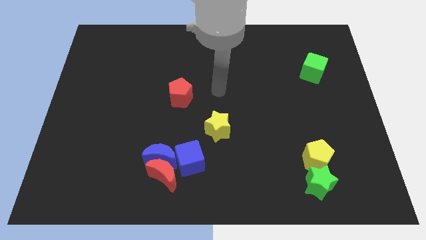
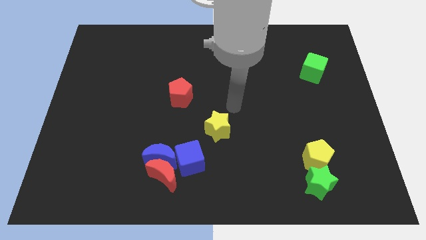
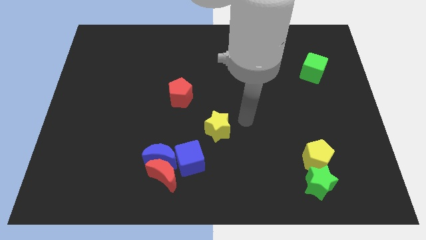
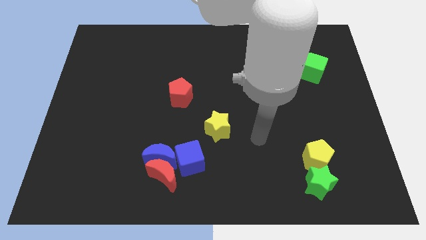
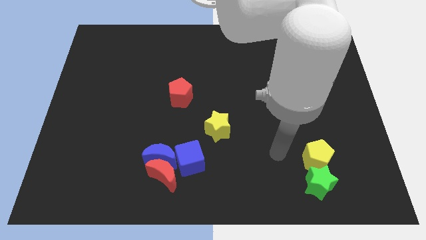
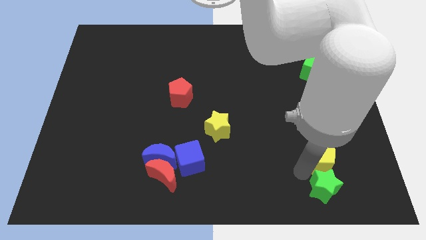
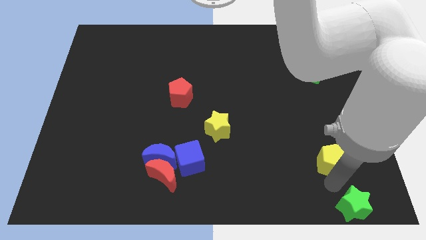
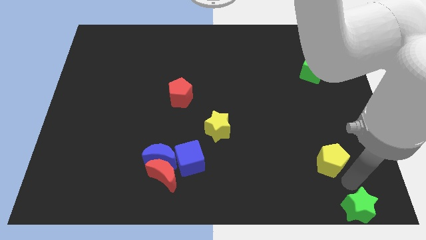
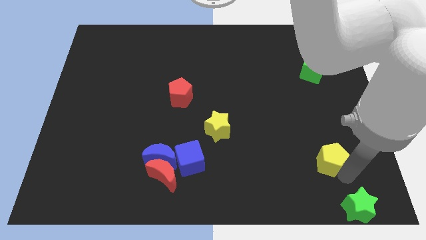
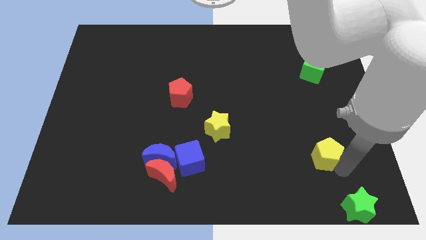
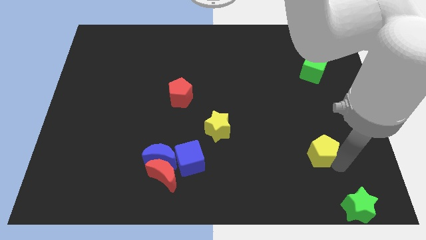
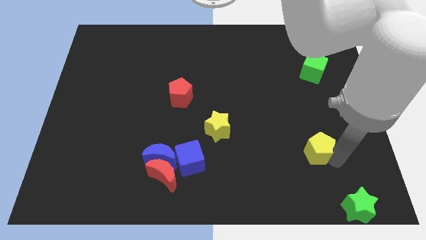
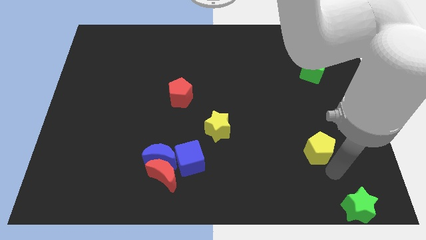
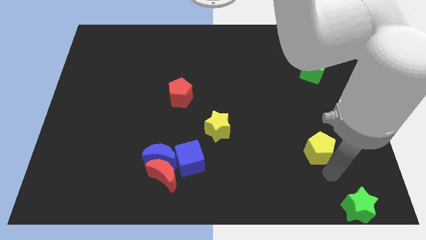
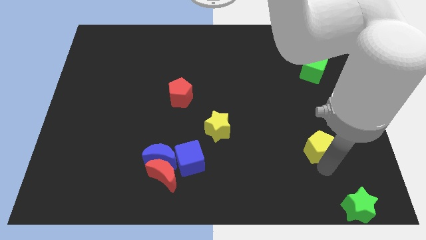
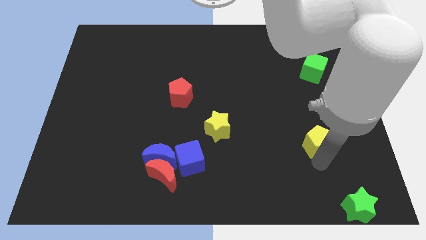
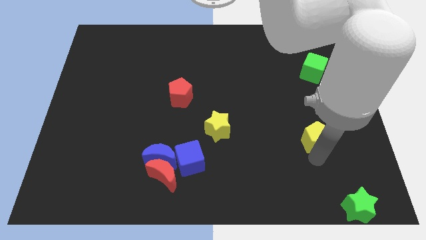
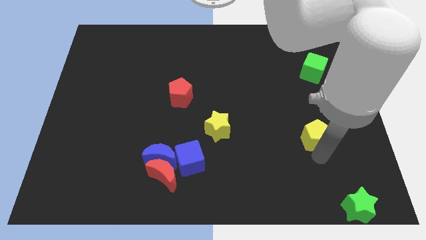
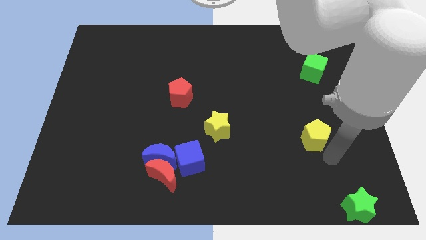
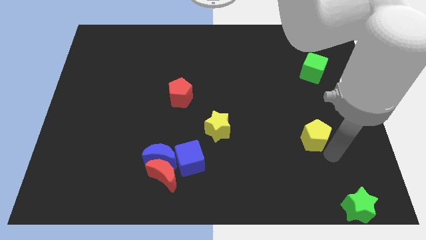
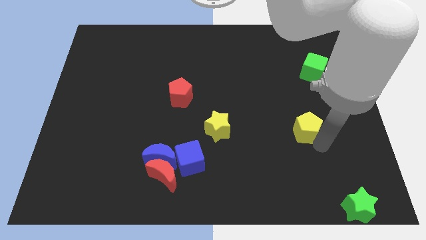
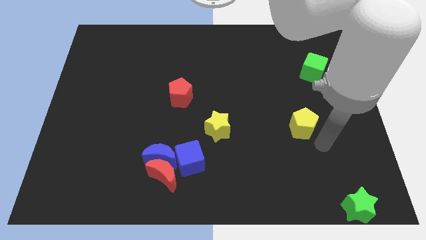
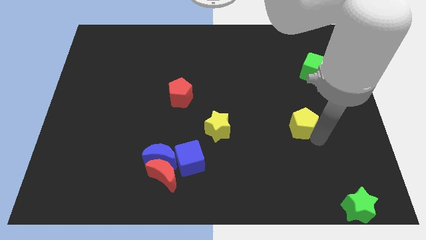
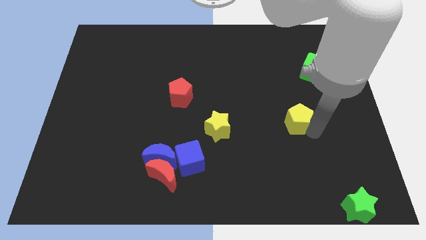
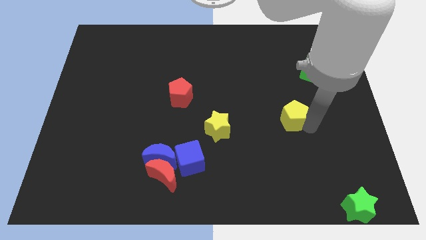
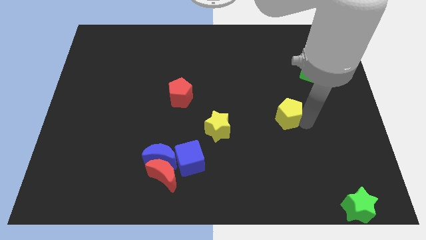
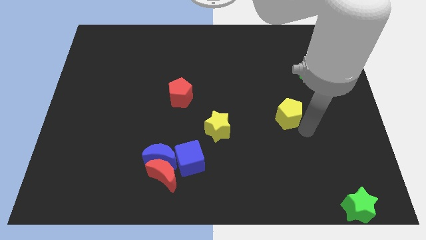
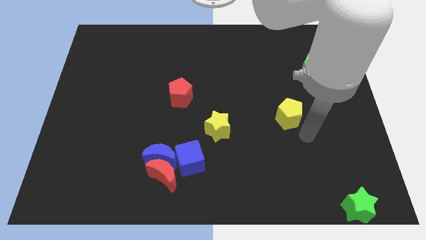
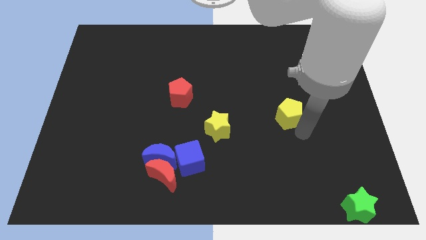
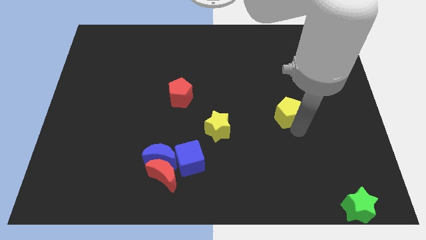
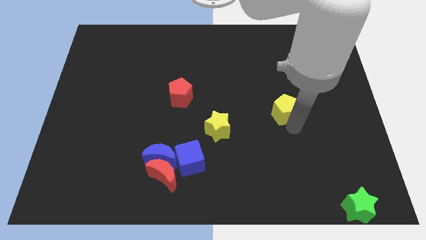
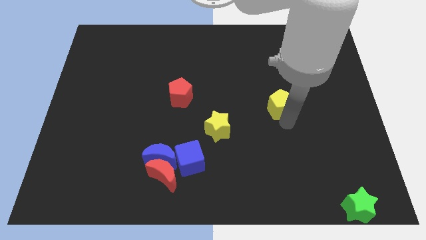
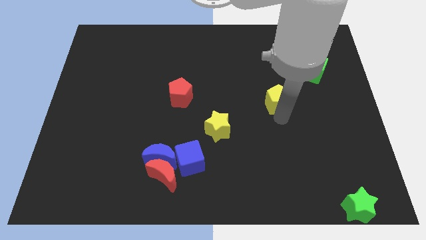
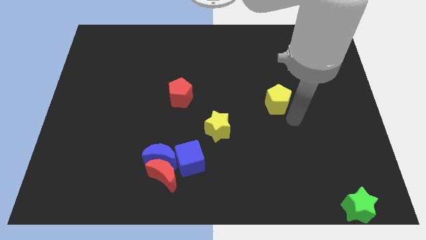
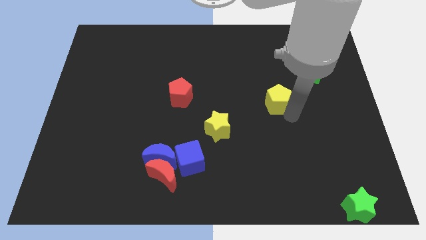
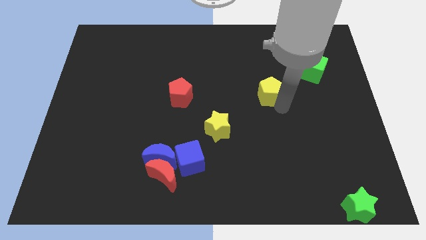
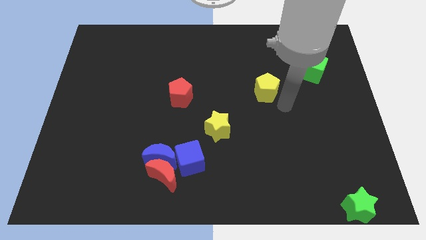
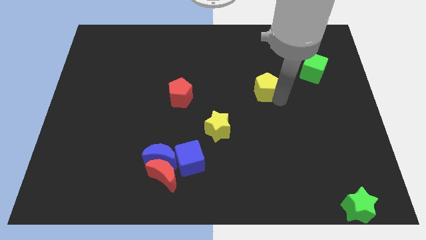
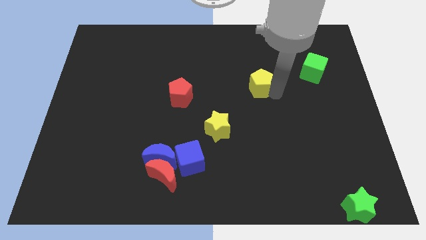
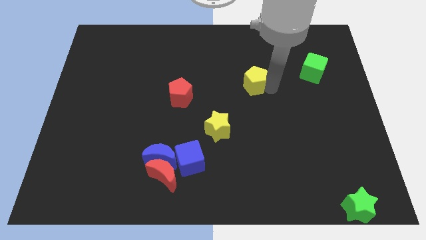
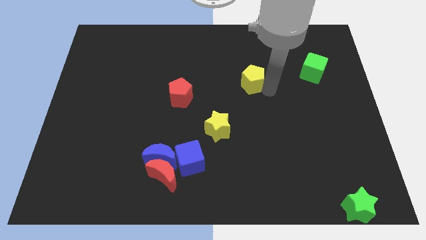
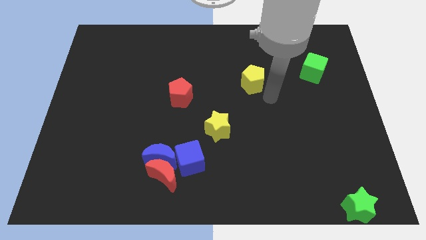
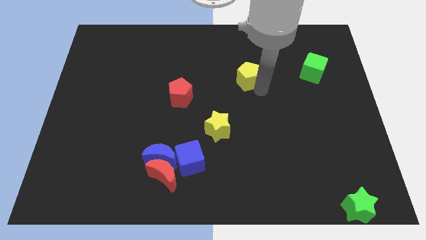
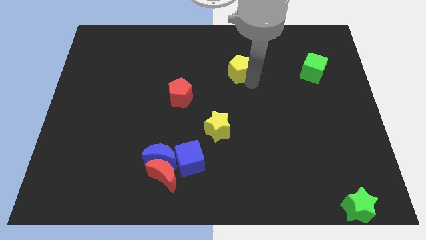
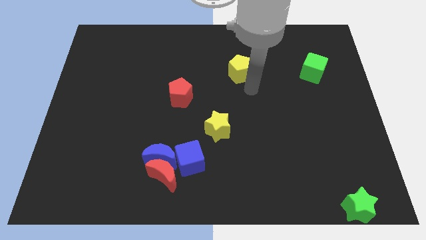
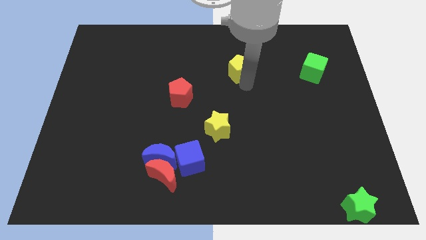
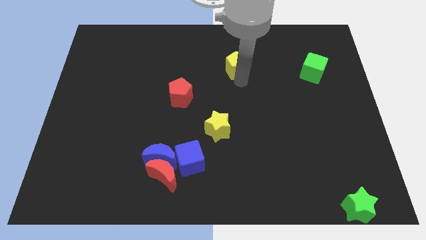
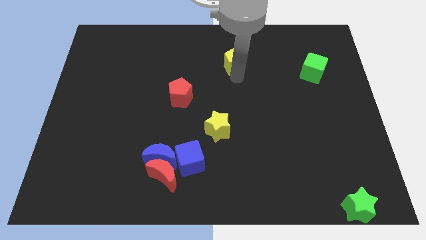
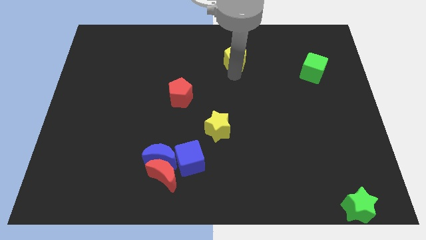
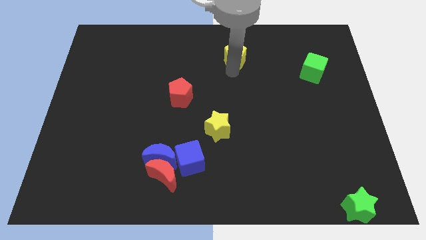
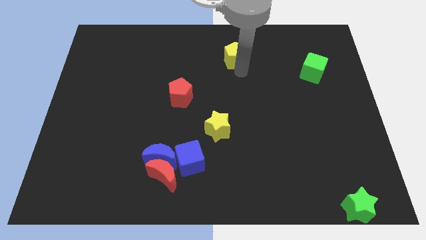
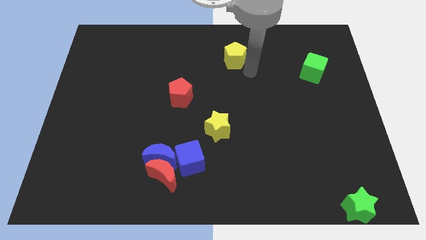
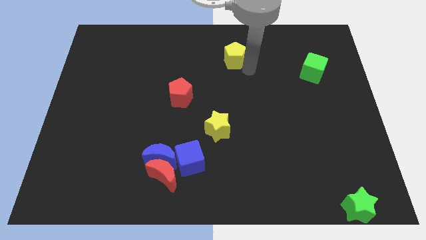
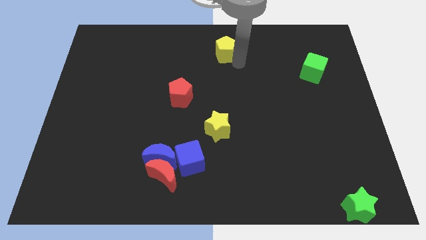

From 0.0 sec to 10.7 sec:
push the yellow pentagon to the top

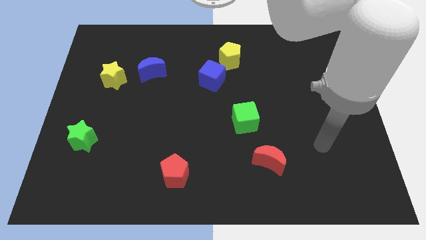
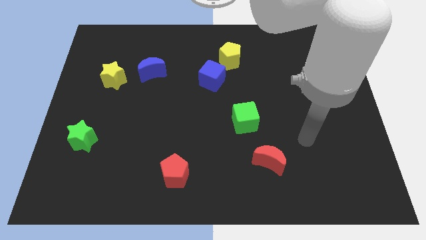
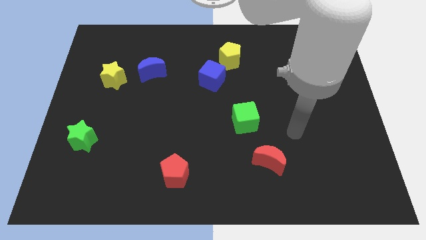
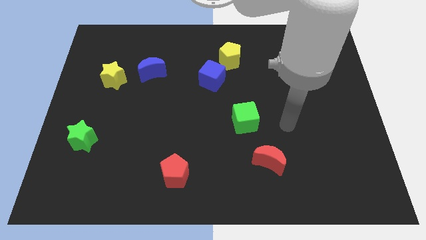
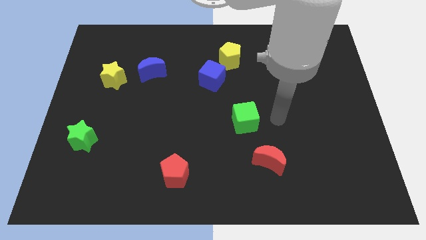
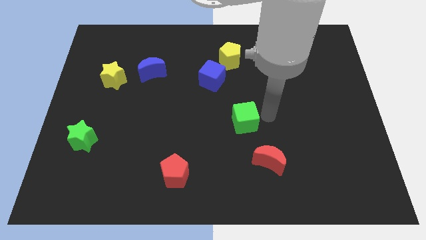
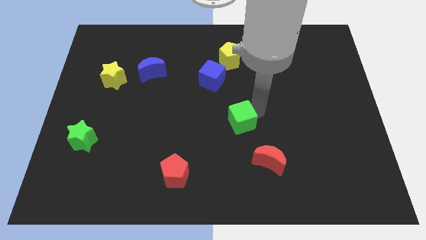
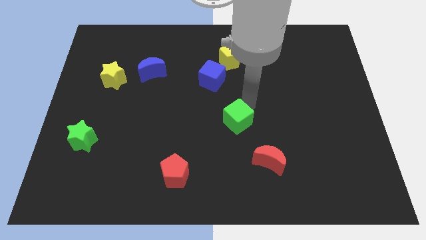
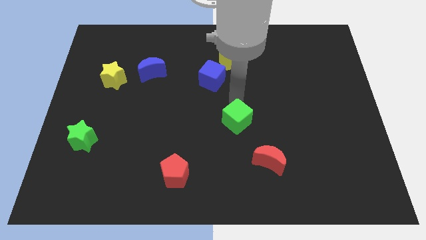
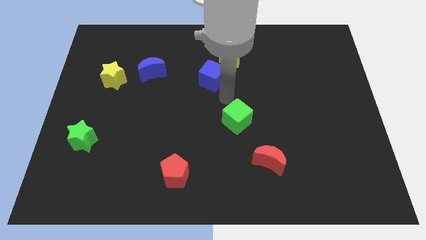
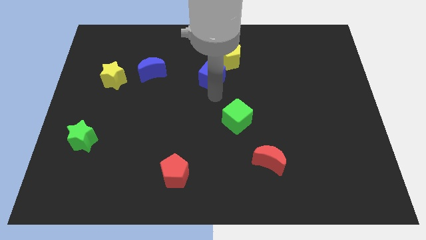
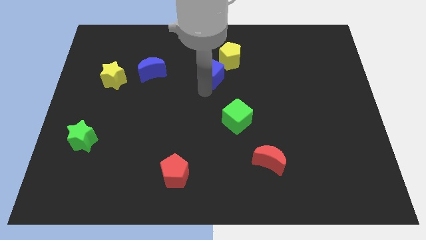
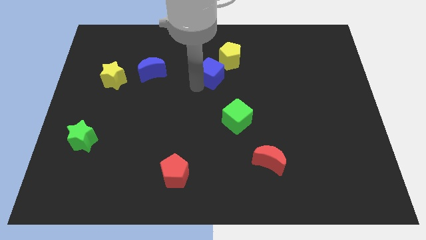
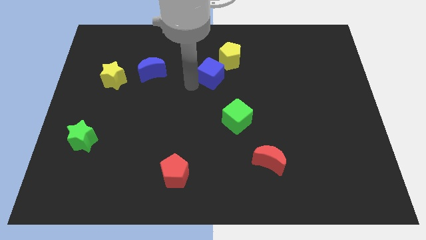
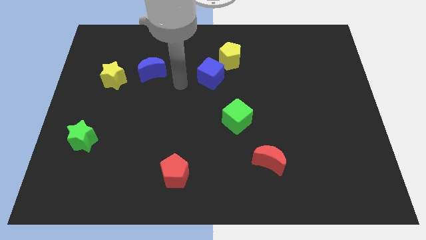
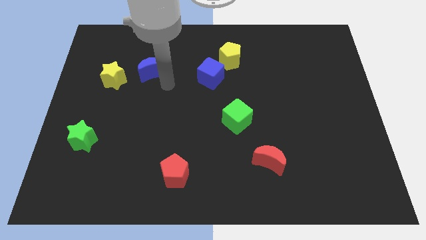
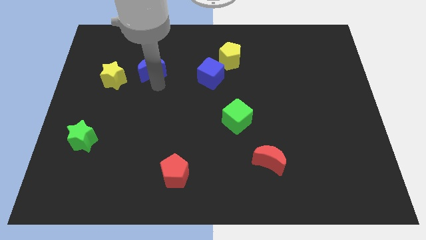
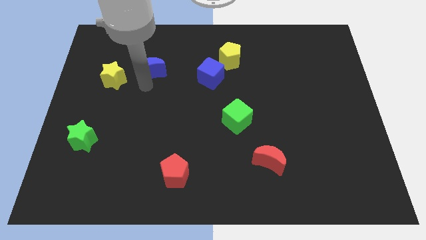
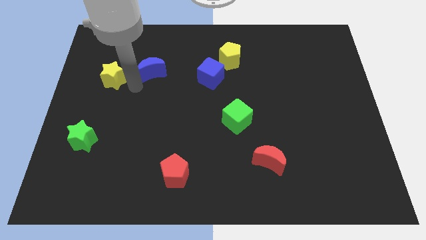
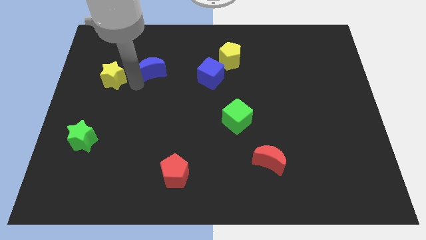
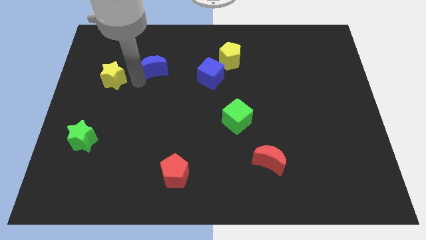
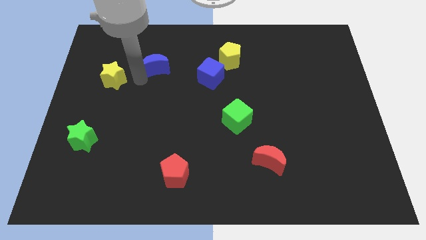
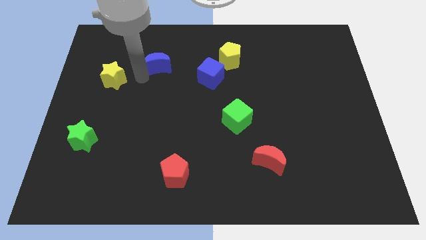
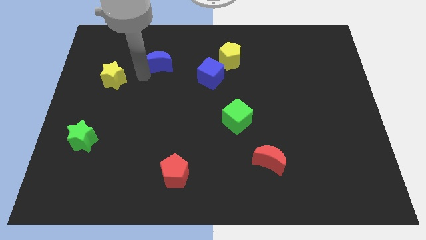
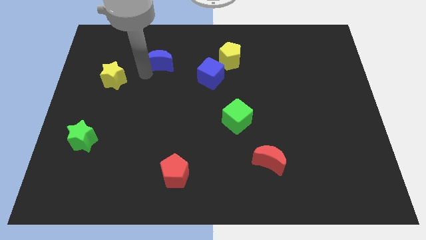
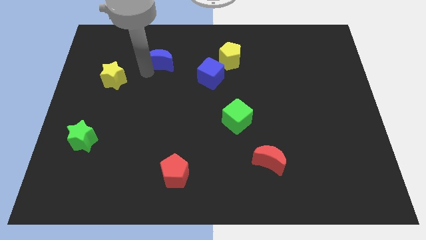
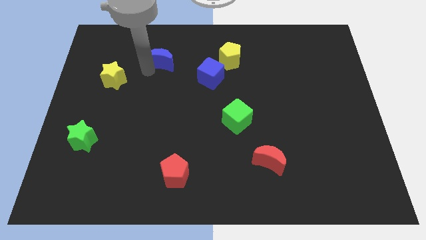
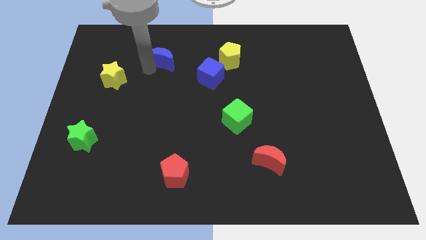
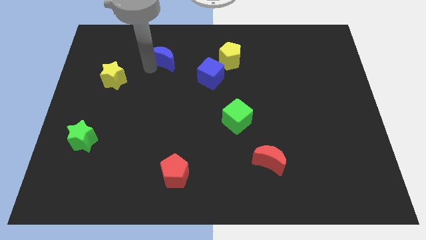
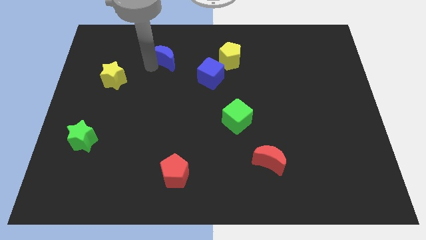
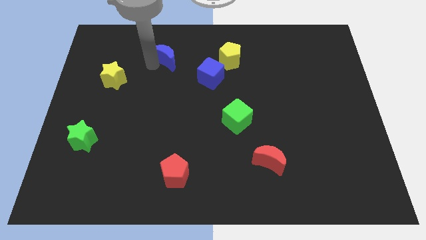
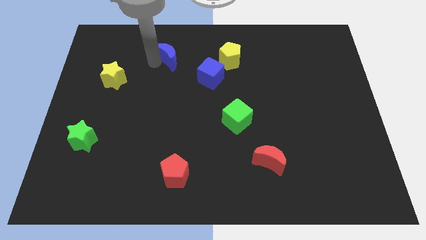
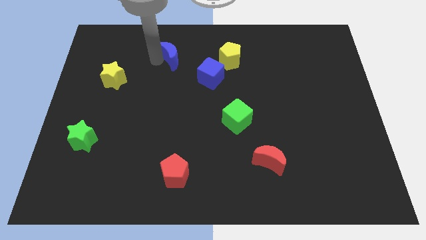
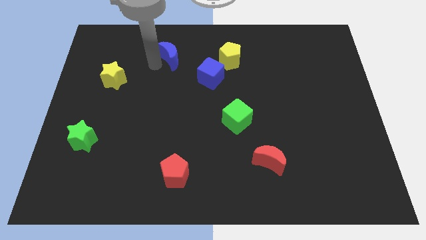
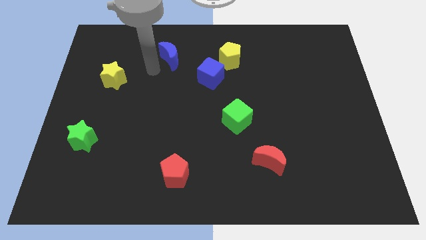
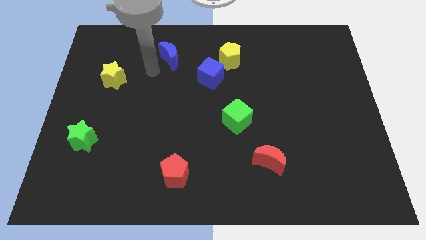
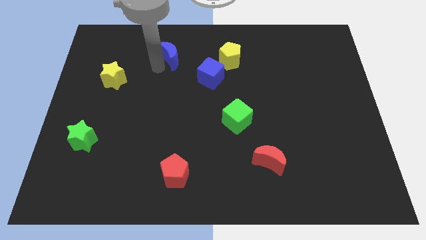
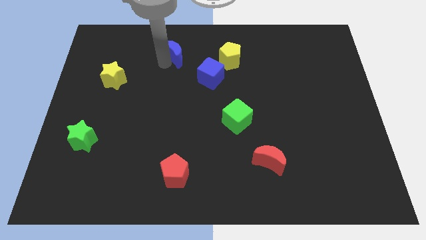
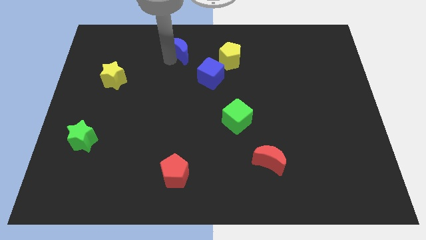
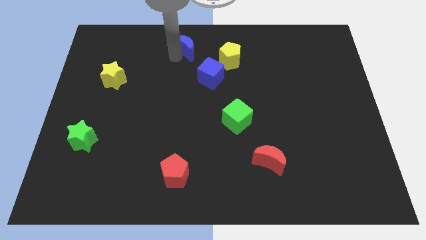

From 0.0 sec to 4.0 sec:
move the blue moon to the towards your base
